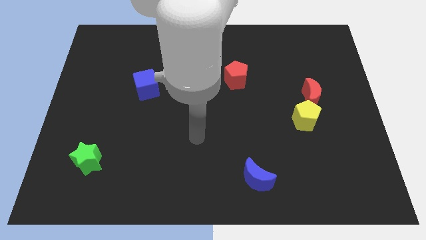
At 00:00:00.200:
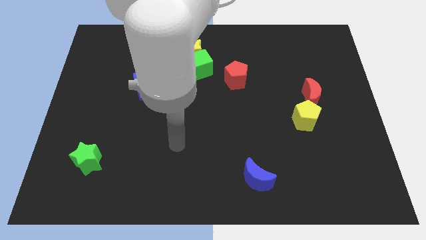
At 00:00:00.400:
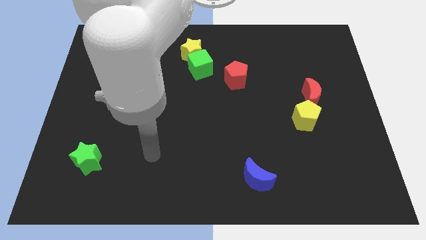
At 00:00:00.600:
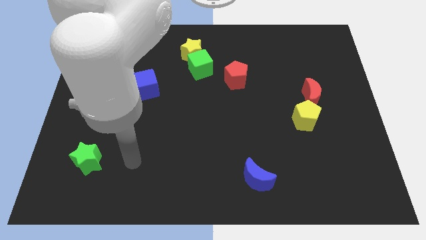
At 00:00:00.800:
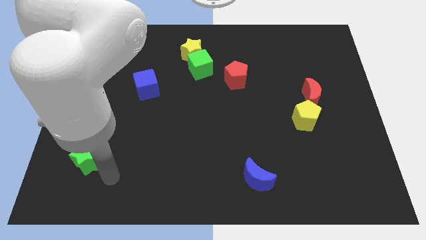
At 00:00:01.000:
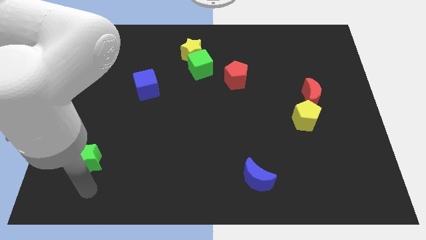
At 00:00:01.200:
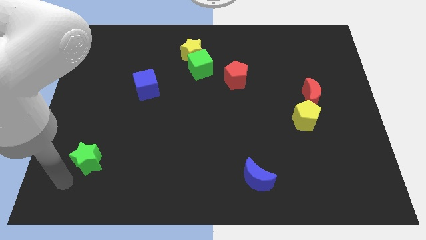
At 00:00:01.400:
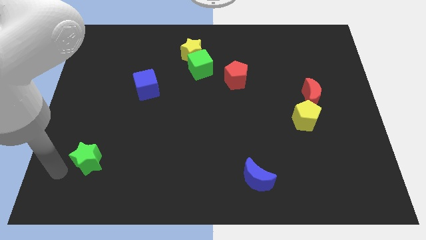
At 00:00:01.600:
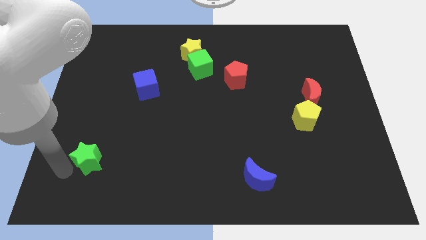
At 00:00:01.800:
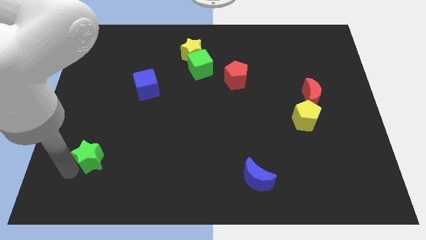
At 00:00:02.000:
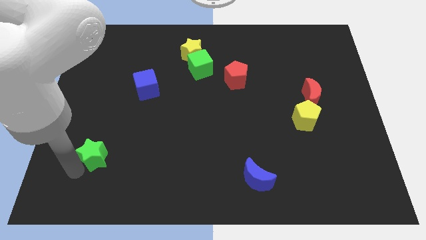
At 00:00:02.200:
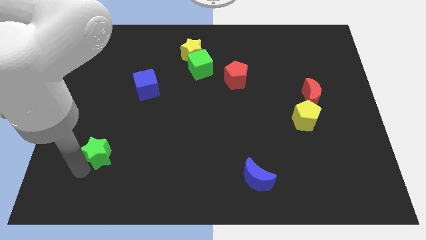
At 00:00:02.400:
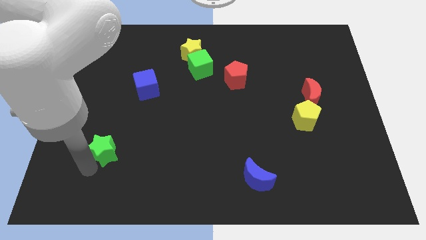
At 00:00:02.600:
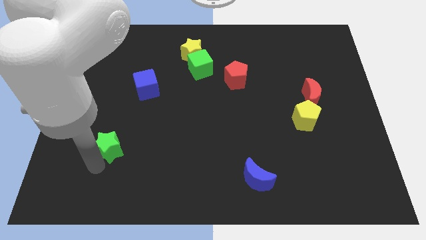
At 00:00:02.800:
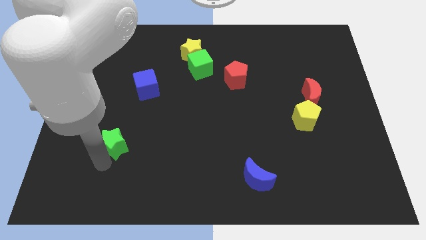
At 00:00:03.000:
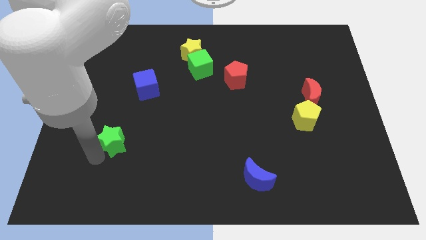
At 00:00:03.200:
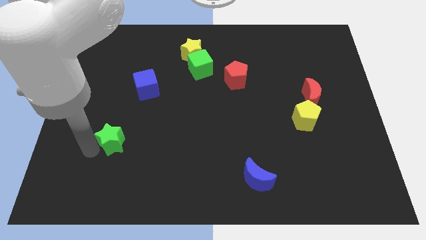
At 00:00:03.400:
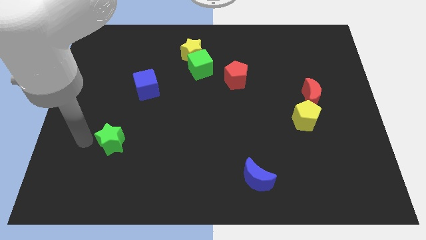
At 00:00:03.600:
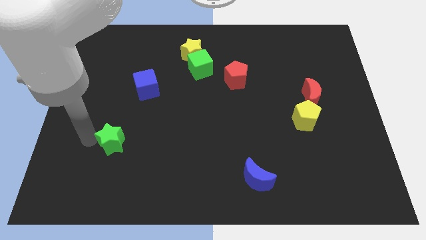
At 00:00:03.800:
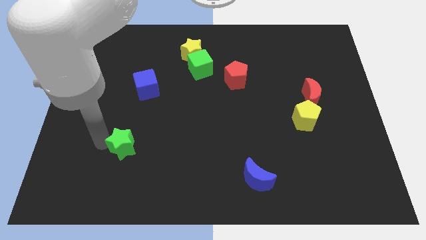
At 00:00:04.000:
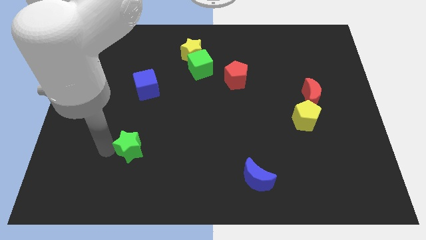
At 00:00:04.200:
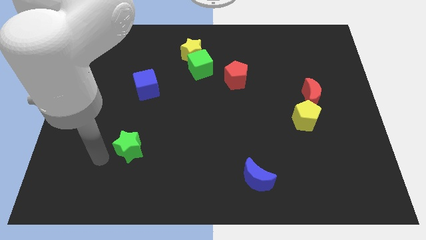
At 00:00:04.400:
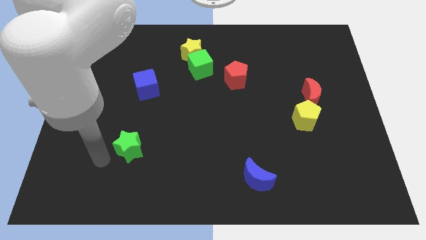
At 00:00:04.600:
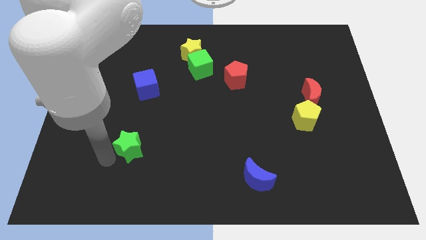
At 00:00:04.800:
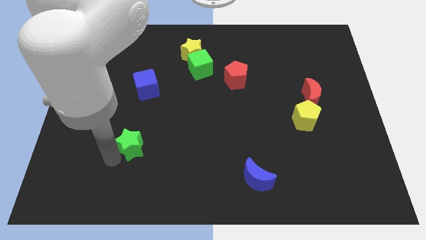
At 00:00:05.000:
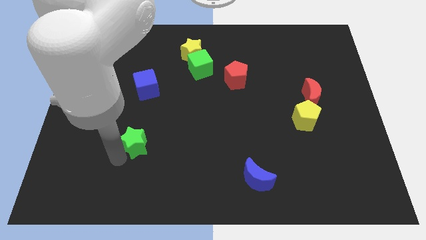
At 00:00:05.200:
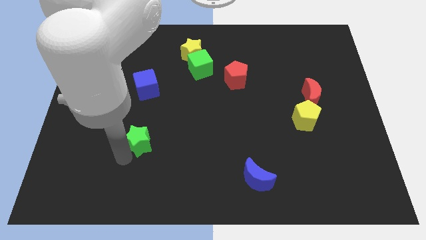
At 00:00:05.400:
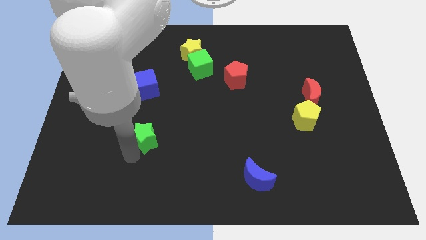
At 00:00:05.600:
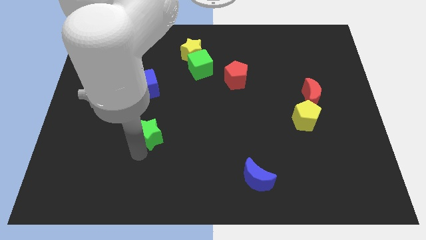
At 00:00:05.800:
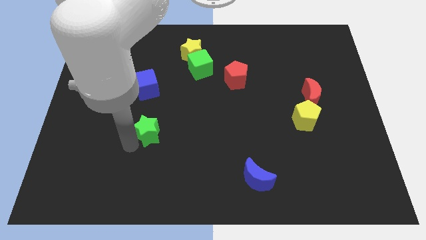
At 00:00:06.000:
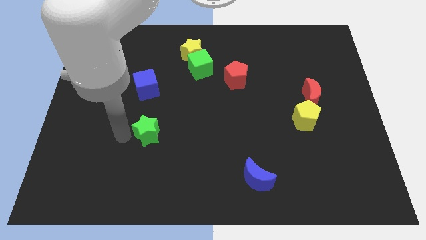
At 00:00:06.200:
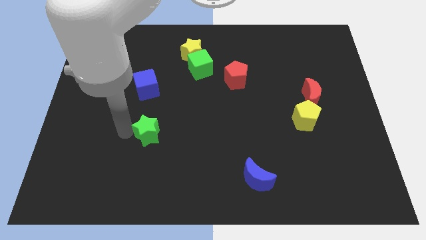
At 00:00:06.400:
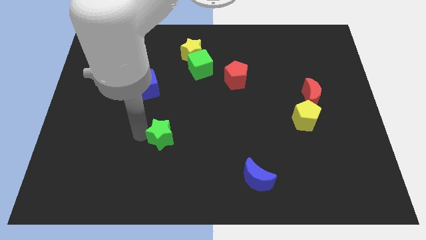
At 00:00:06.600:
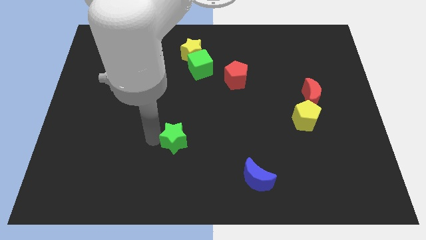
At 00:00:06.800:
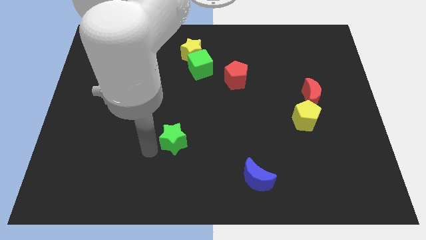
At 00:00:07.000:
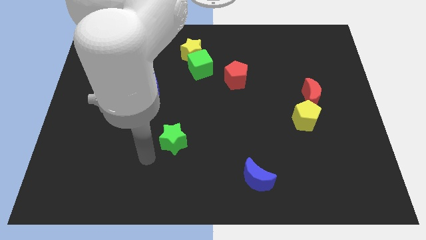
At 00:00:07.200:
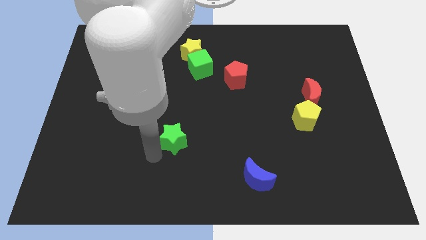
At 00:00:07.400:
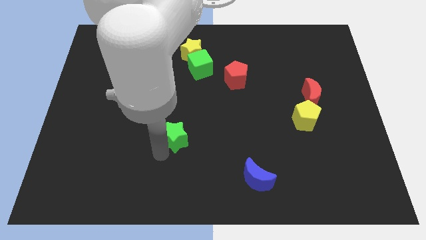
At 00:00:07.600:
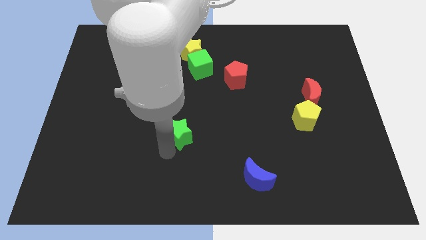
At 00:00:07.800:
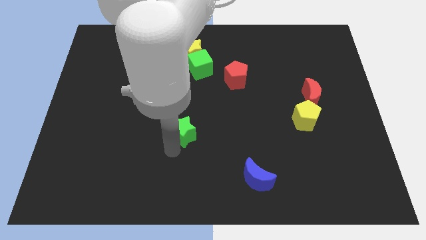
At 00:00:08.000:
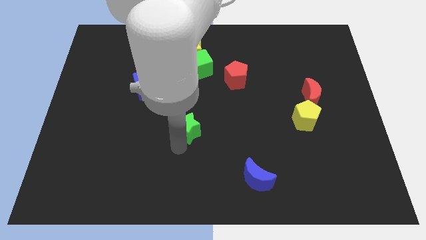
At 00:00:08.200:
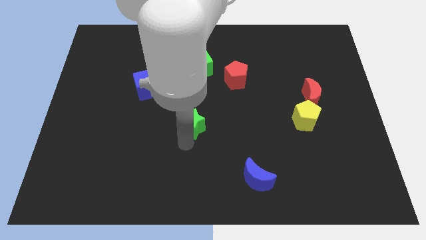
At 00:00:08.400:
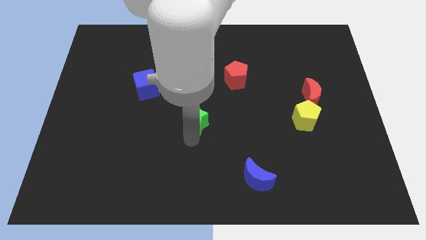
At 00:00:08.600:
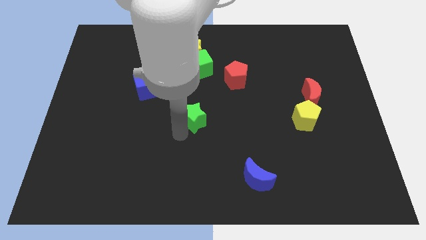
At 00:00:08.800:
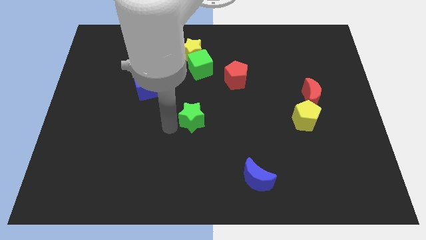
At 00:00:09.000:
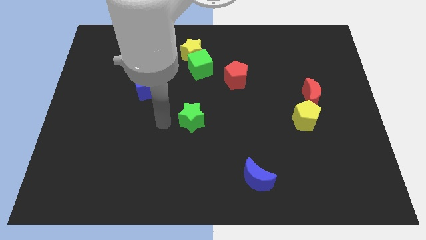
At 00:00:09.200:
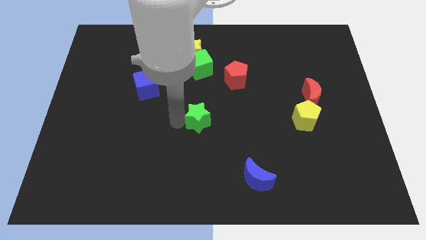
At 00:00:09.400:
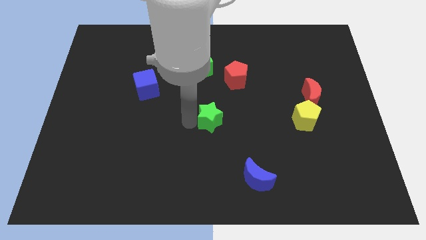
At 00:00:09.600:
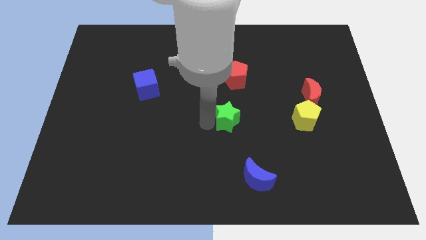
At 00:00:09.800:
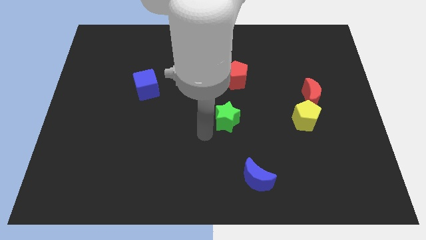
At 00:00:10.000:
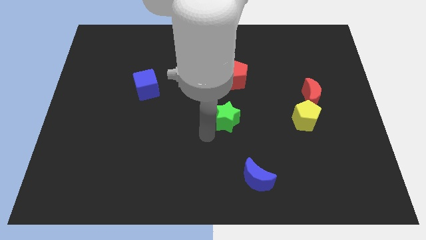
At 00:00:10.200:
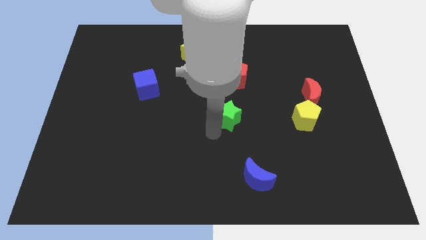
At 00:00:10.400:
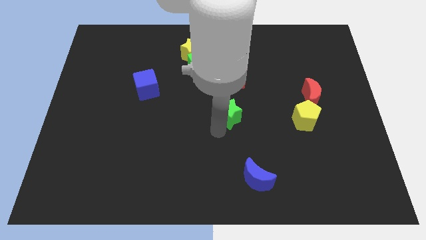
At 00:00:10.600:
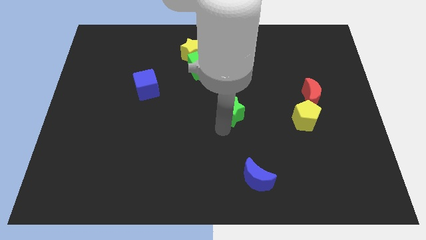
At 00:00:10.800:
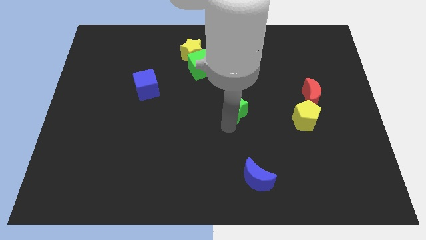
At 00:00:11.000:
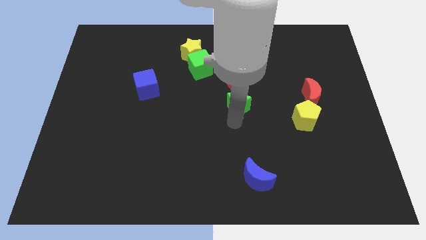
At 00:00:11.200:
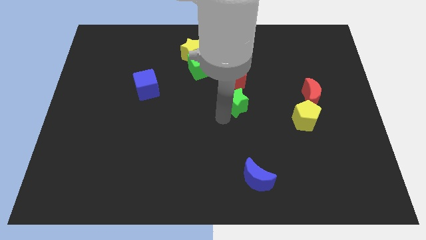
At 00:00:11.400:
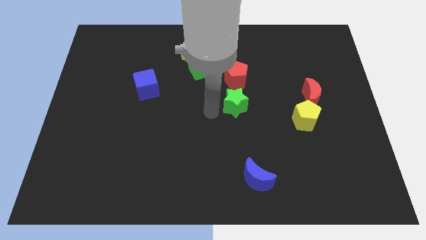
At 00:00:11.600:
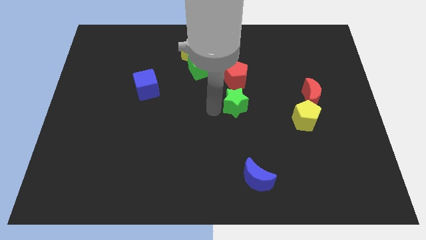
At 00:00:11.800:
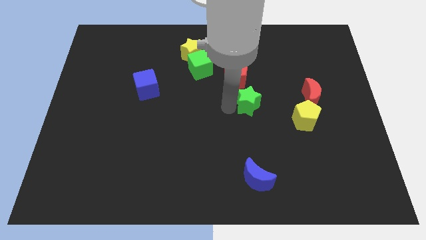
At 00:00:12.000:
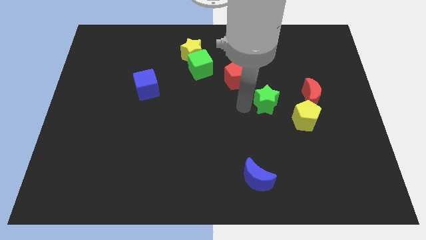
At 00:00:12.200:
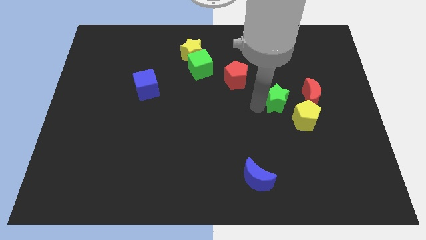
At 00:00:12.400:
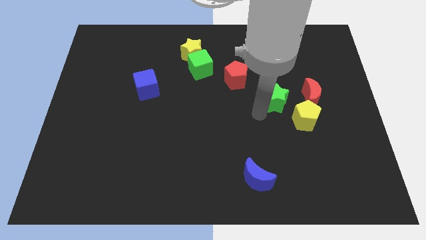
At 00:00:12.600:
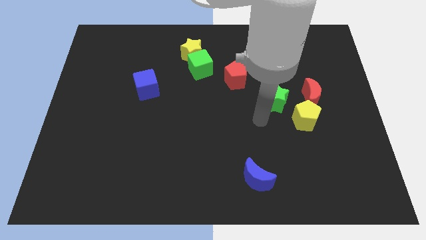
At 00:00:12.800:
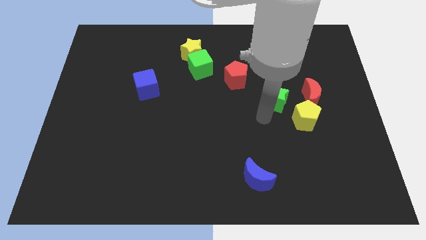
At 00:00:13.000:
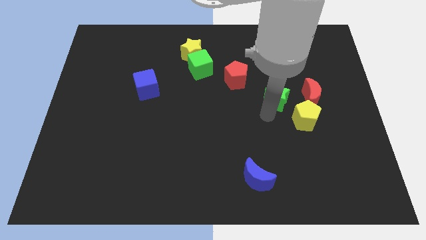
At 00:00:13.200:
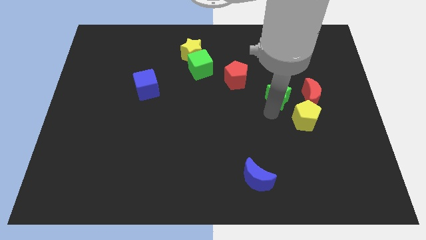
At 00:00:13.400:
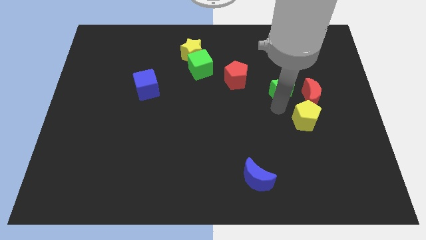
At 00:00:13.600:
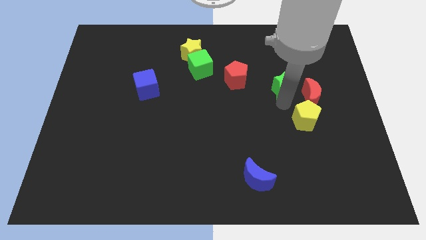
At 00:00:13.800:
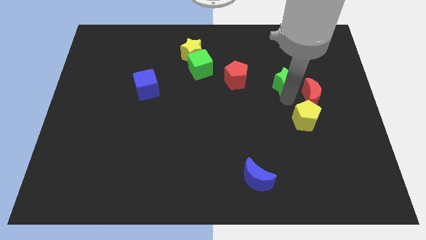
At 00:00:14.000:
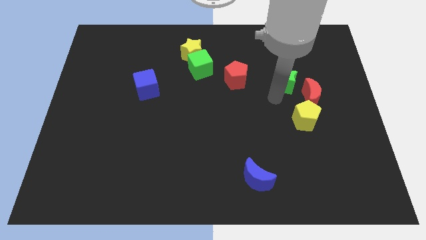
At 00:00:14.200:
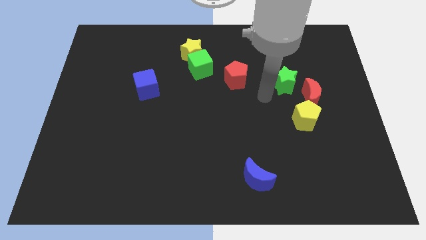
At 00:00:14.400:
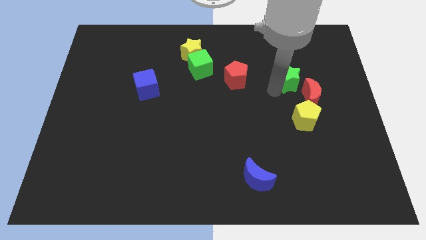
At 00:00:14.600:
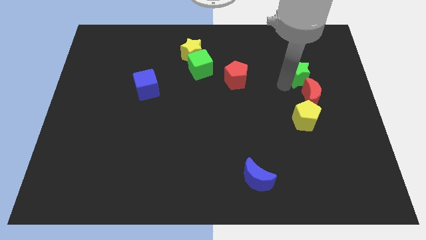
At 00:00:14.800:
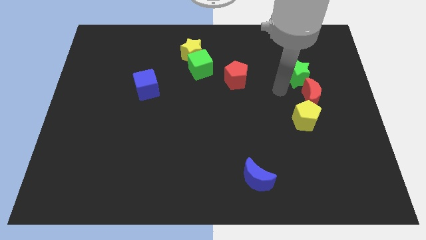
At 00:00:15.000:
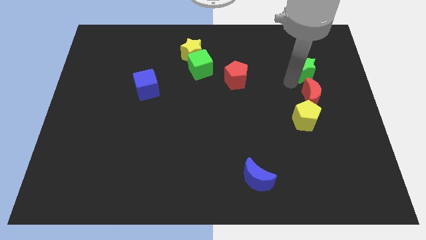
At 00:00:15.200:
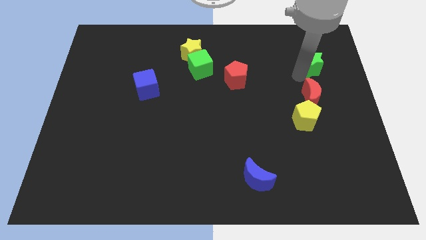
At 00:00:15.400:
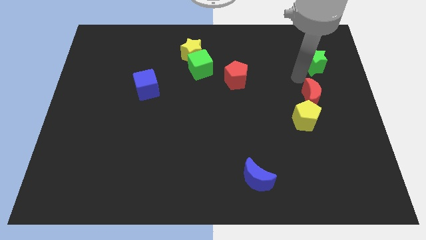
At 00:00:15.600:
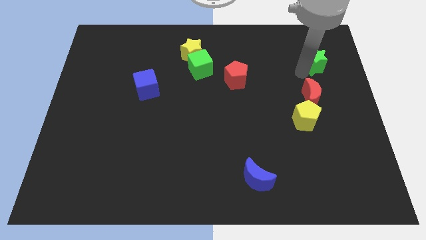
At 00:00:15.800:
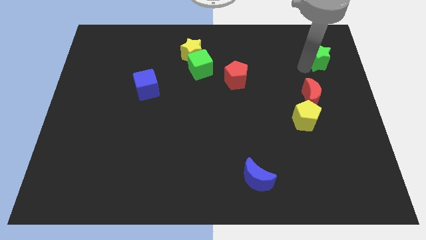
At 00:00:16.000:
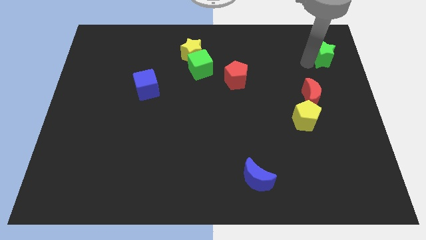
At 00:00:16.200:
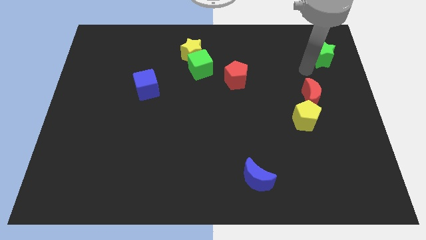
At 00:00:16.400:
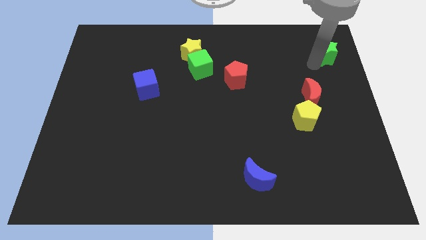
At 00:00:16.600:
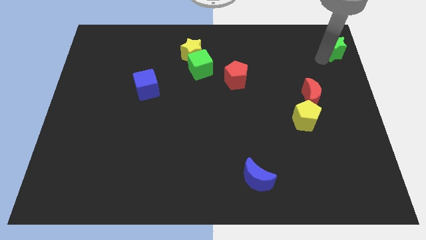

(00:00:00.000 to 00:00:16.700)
move the green star to the top right corner
